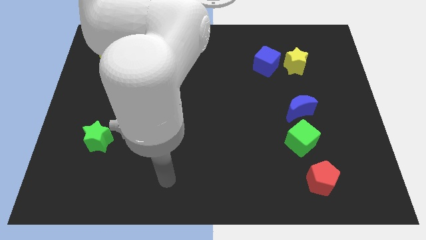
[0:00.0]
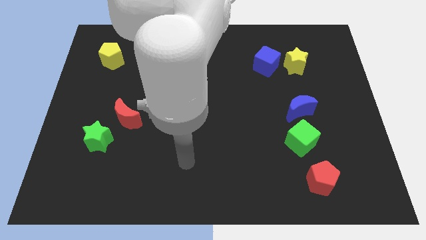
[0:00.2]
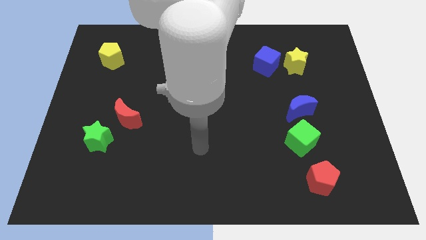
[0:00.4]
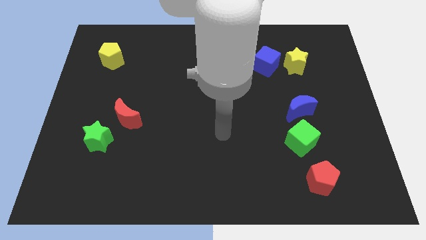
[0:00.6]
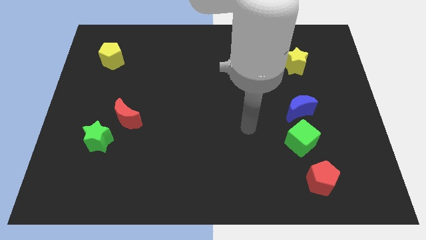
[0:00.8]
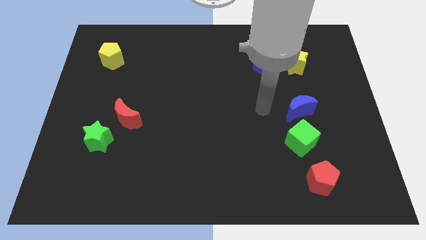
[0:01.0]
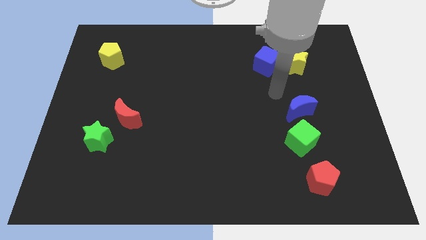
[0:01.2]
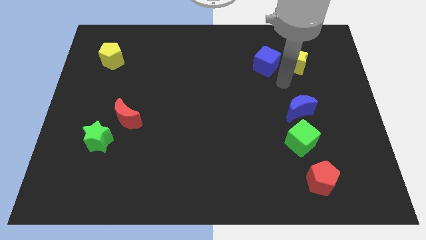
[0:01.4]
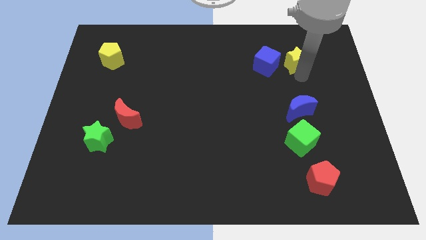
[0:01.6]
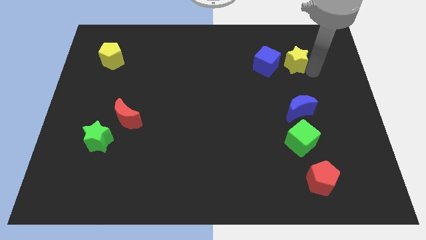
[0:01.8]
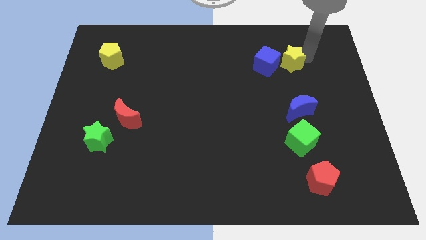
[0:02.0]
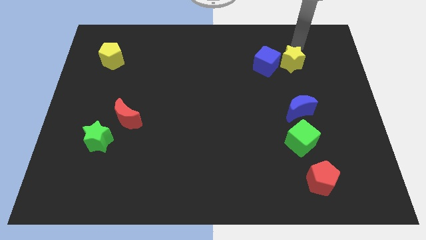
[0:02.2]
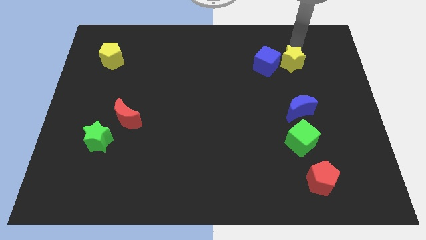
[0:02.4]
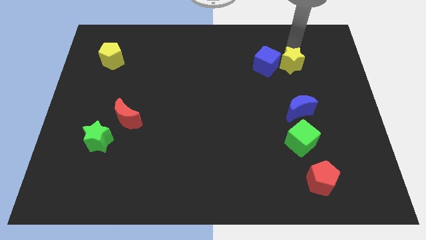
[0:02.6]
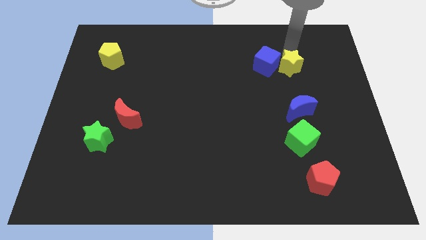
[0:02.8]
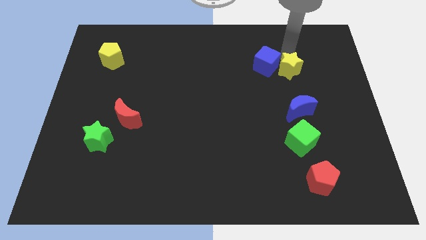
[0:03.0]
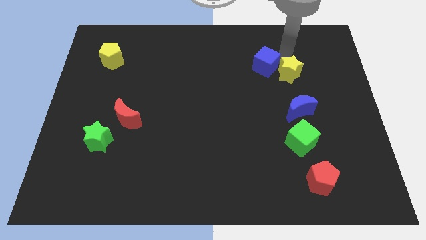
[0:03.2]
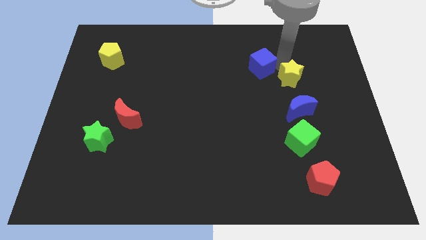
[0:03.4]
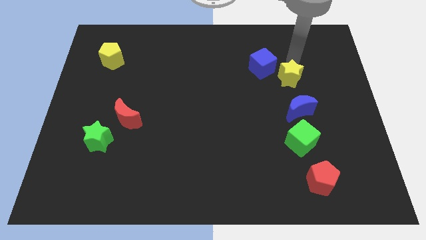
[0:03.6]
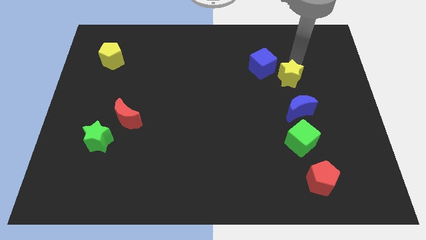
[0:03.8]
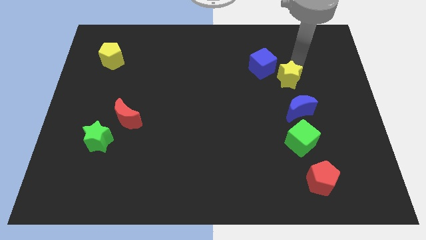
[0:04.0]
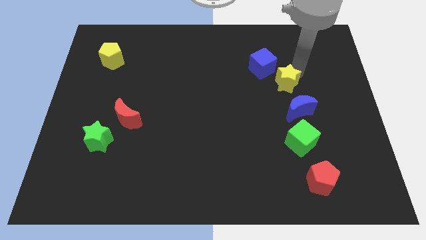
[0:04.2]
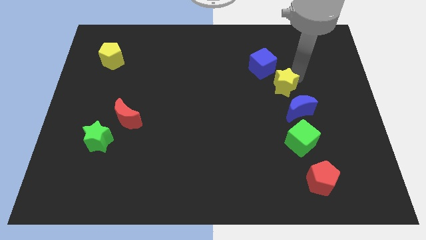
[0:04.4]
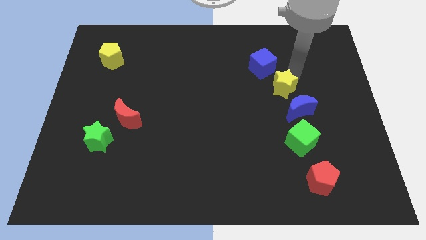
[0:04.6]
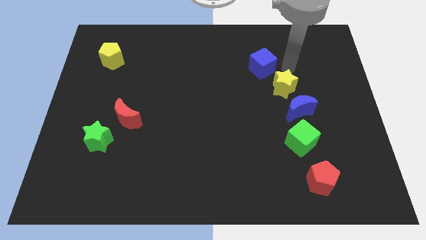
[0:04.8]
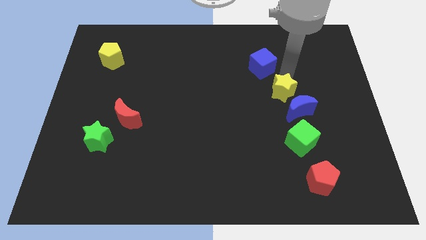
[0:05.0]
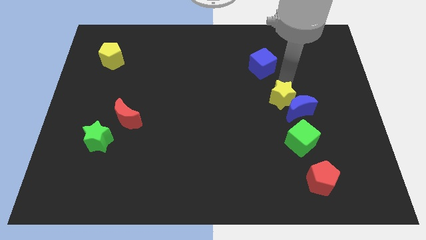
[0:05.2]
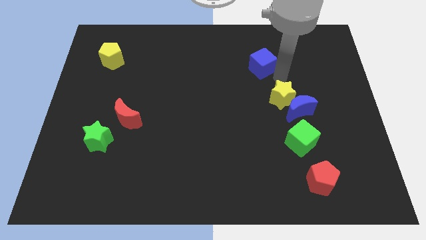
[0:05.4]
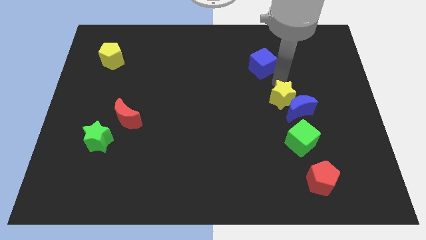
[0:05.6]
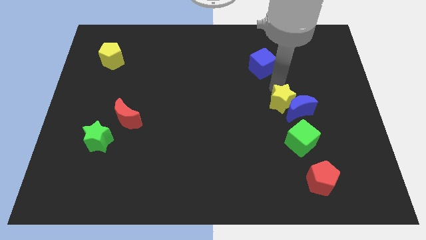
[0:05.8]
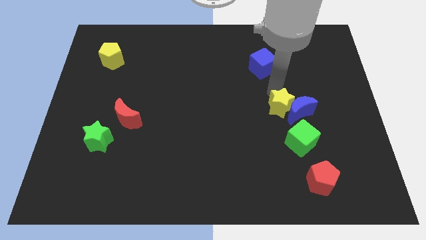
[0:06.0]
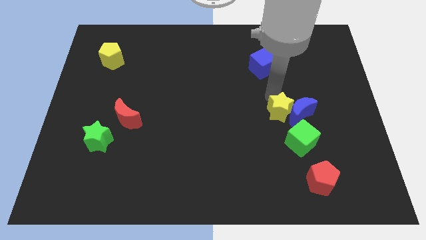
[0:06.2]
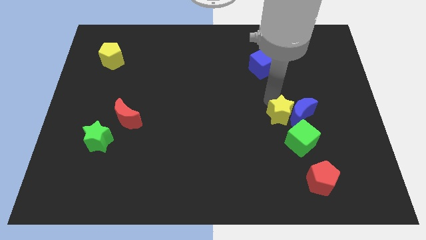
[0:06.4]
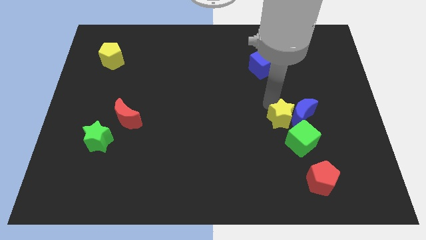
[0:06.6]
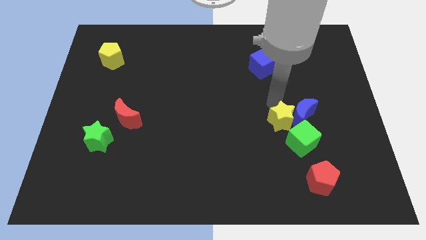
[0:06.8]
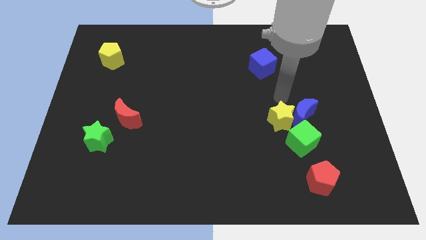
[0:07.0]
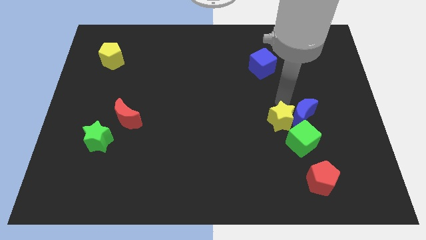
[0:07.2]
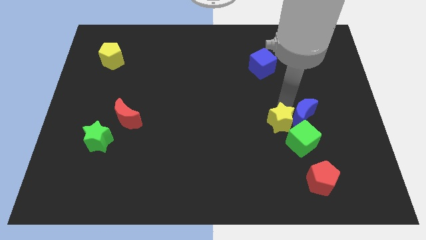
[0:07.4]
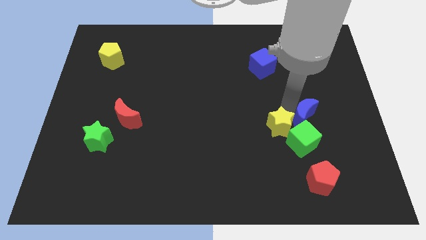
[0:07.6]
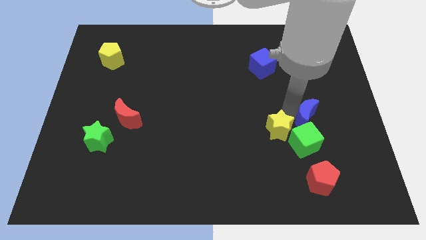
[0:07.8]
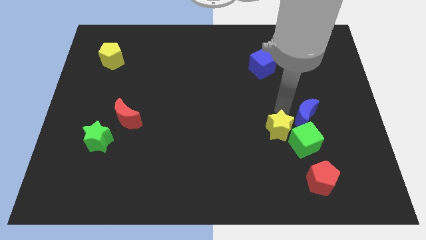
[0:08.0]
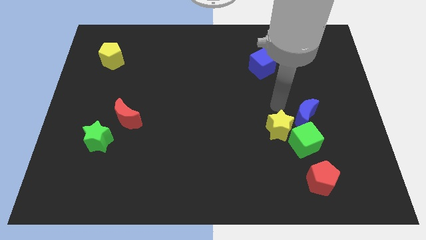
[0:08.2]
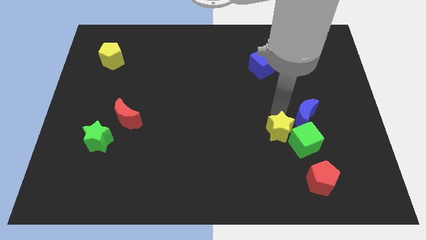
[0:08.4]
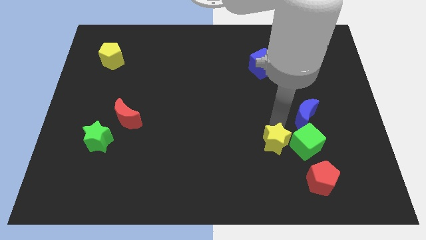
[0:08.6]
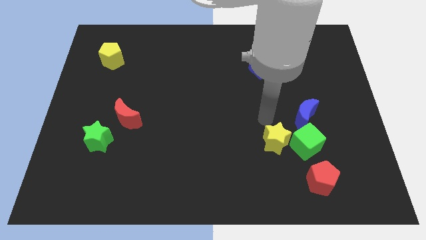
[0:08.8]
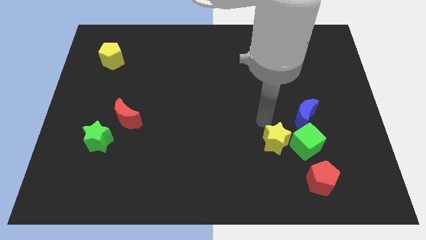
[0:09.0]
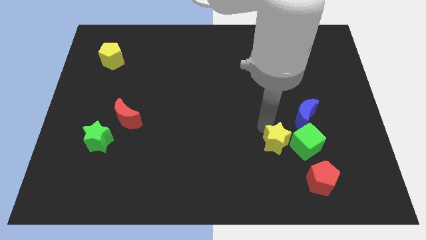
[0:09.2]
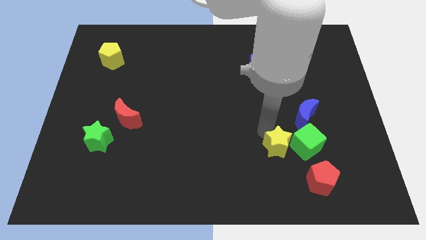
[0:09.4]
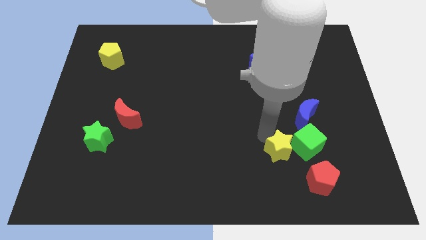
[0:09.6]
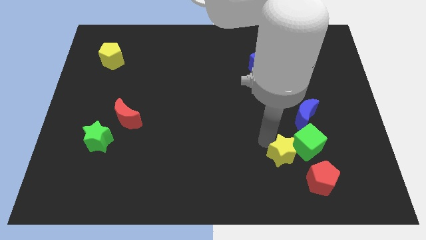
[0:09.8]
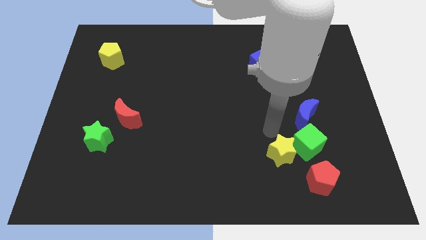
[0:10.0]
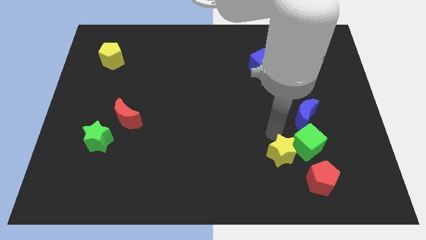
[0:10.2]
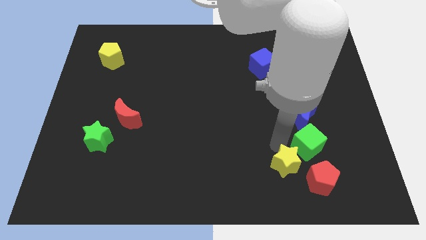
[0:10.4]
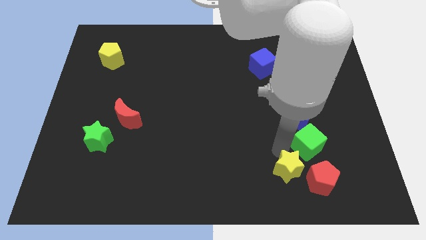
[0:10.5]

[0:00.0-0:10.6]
push the yellow star to the bottom side of the green cube

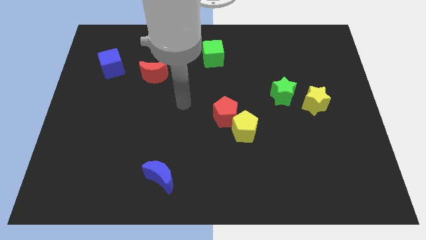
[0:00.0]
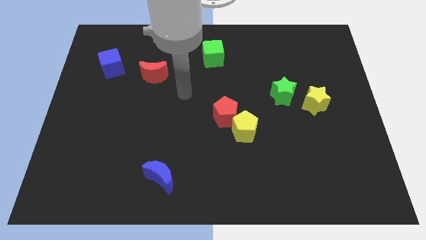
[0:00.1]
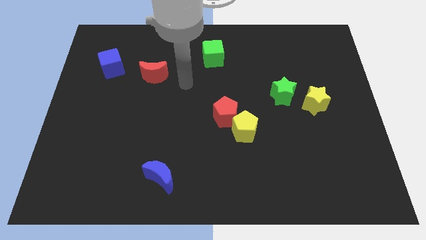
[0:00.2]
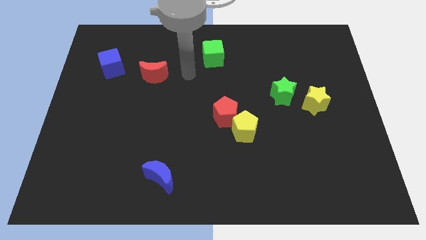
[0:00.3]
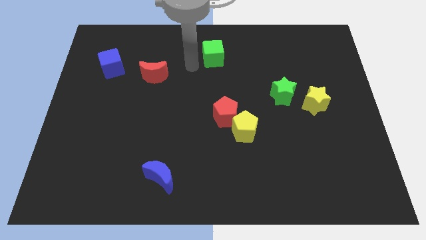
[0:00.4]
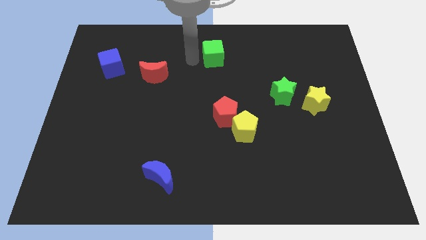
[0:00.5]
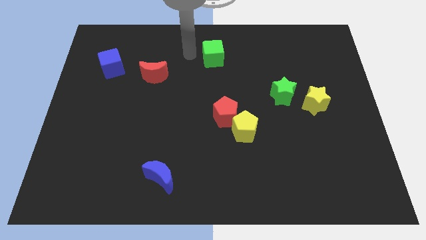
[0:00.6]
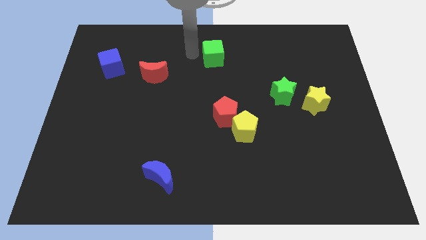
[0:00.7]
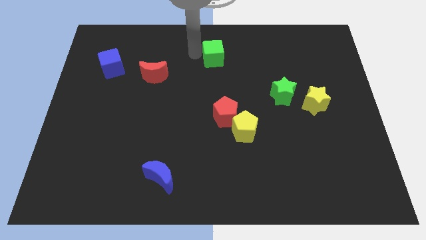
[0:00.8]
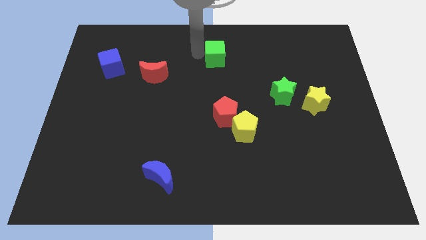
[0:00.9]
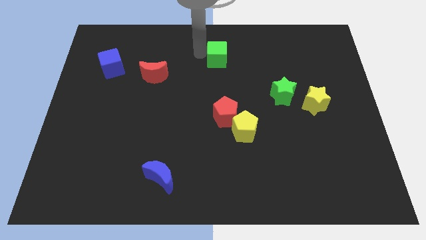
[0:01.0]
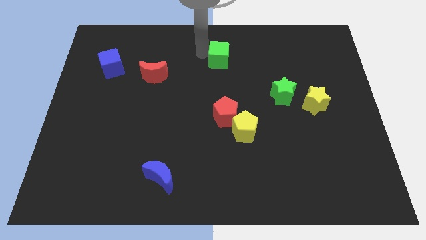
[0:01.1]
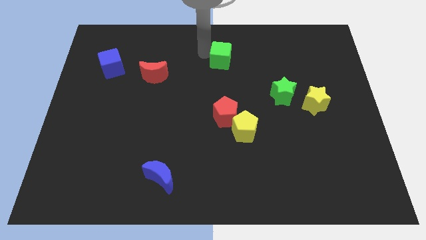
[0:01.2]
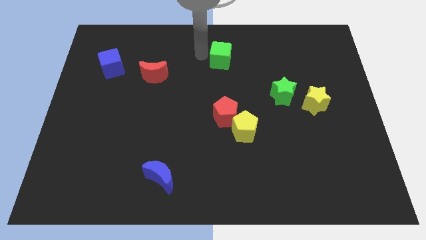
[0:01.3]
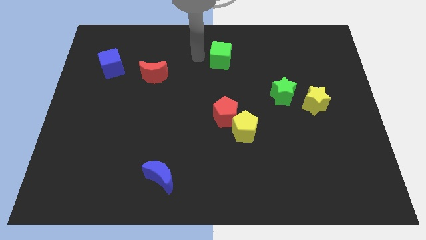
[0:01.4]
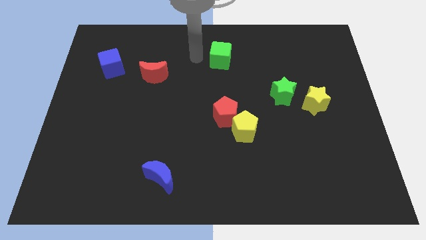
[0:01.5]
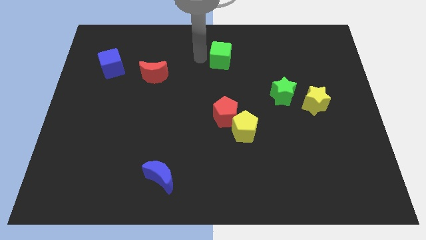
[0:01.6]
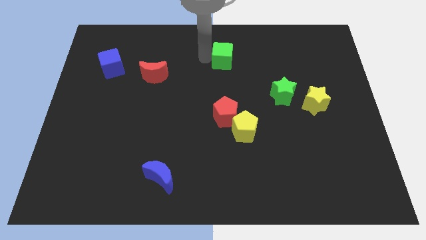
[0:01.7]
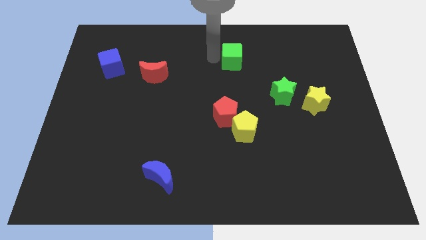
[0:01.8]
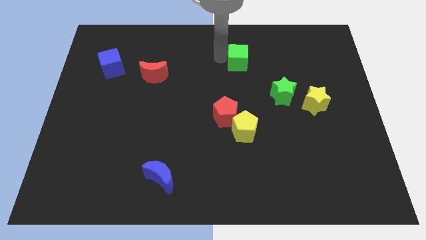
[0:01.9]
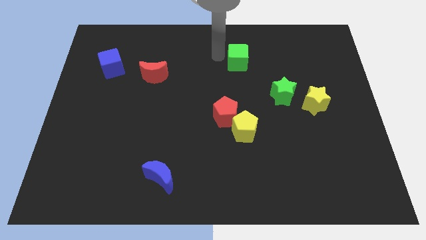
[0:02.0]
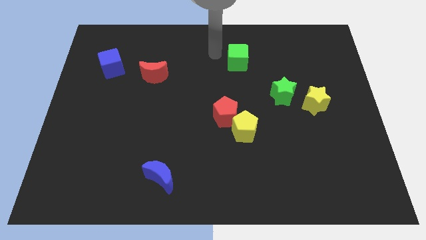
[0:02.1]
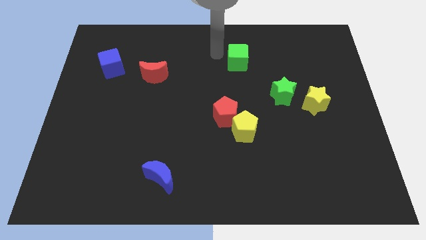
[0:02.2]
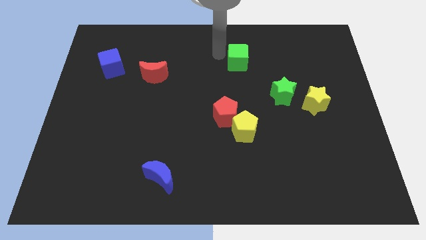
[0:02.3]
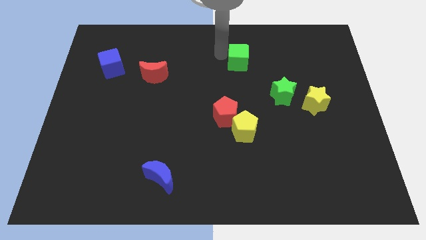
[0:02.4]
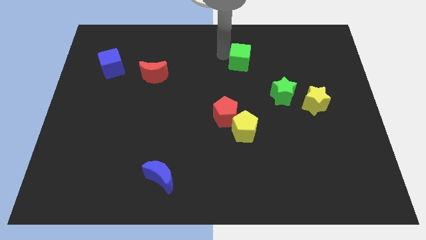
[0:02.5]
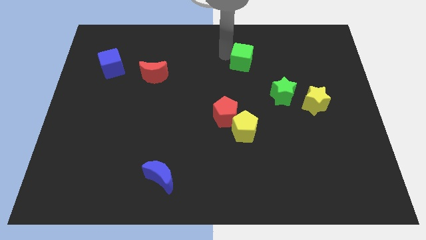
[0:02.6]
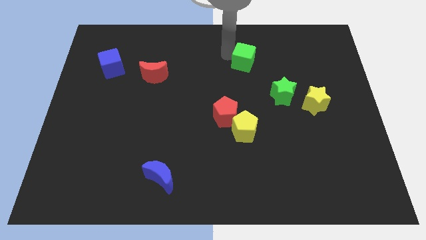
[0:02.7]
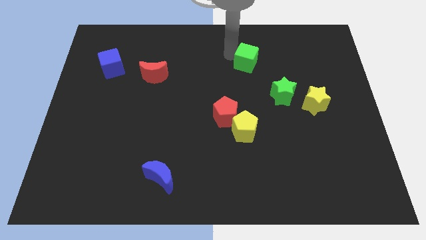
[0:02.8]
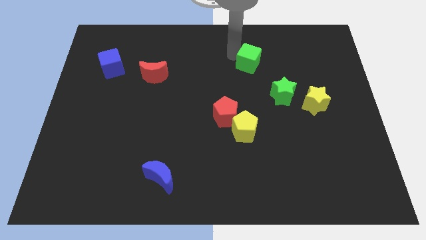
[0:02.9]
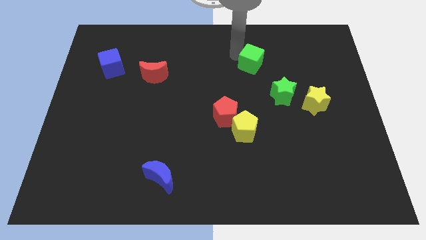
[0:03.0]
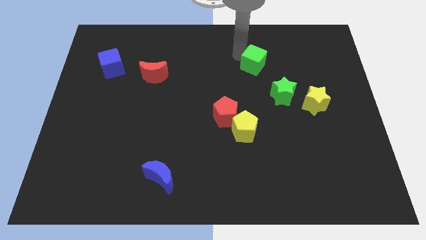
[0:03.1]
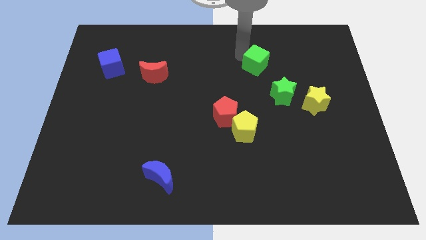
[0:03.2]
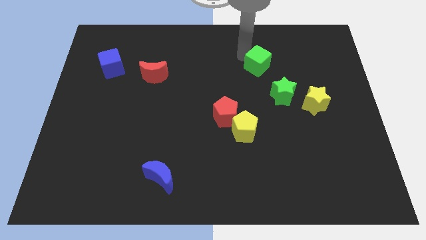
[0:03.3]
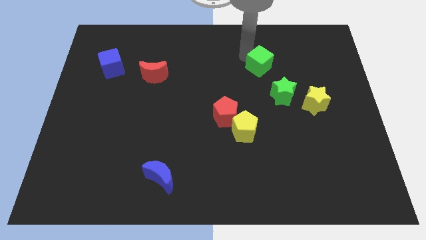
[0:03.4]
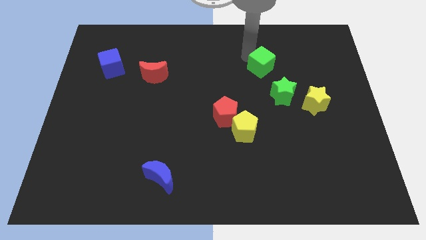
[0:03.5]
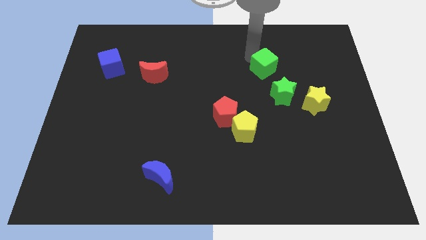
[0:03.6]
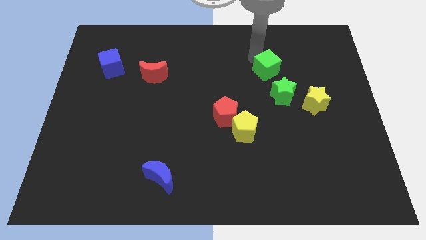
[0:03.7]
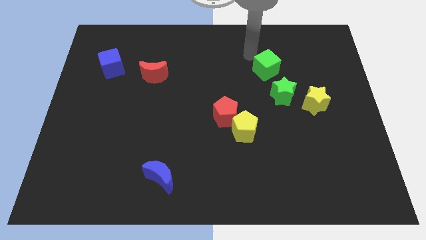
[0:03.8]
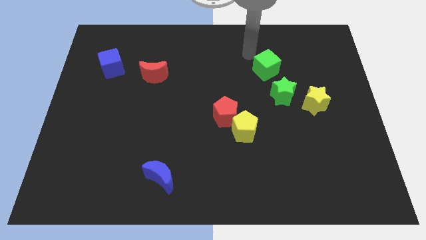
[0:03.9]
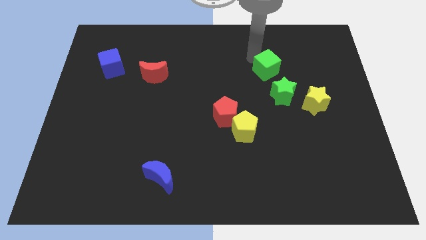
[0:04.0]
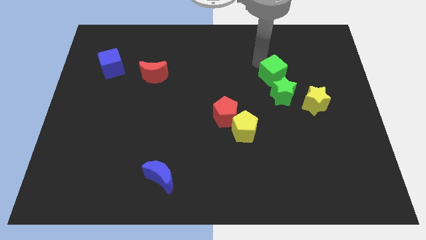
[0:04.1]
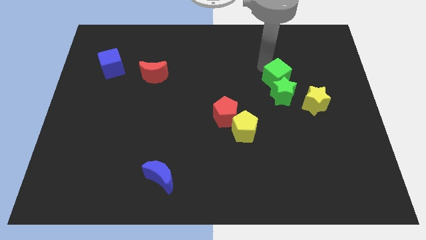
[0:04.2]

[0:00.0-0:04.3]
slide the green cube to the top left side of the yellow star
